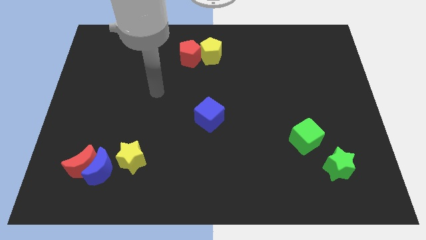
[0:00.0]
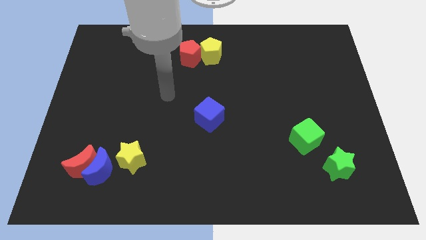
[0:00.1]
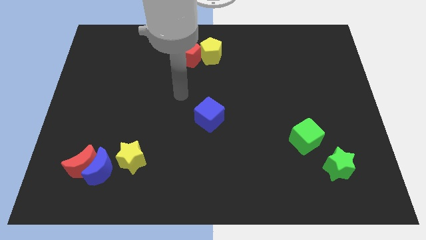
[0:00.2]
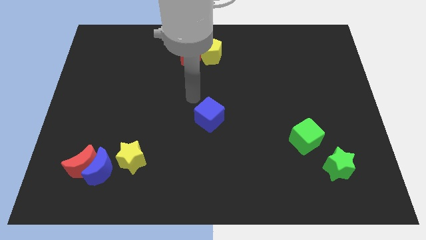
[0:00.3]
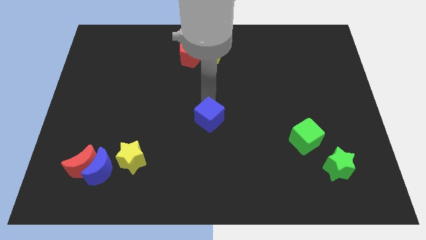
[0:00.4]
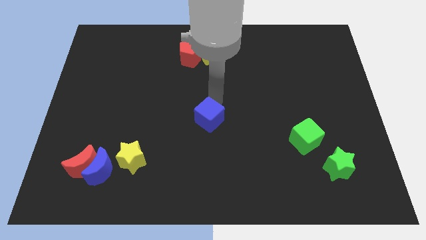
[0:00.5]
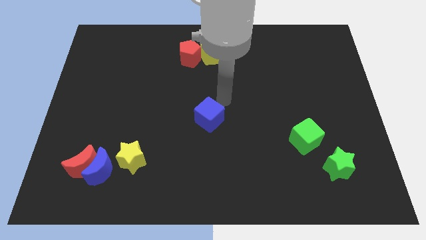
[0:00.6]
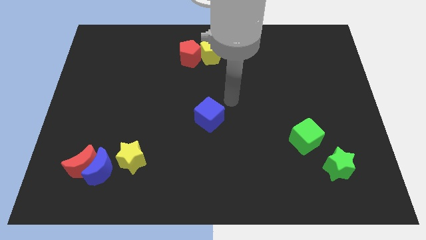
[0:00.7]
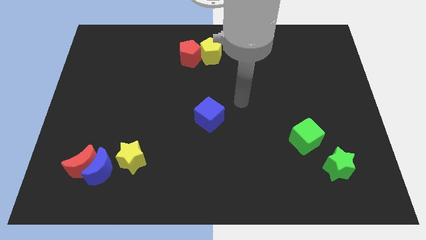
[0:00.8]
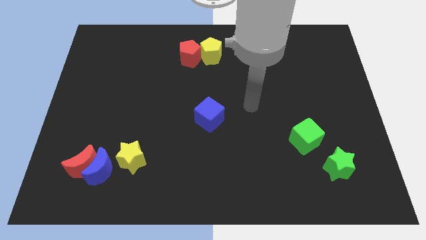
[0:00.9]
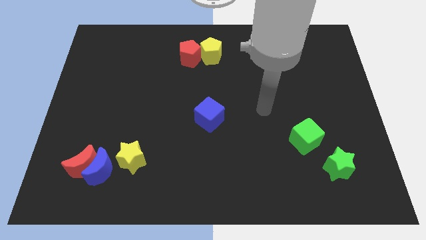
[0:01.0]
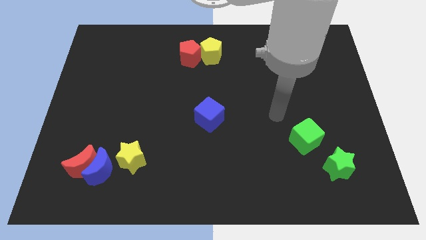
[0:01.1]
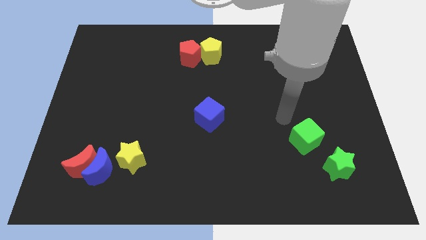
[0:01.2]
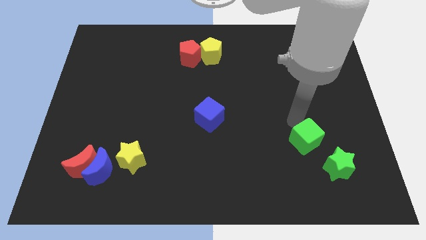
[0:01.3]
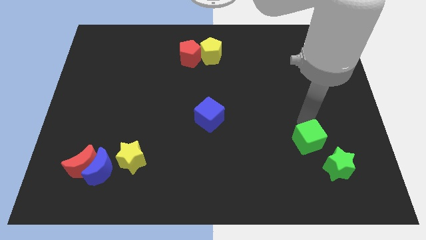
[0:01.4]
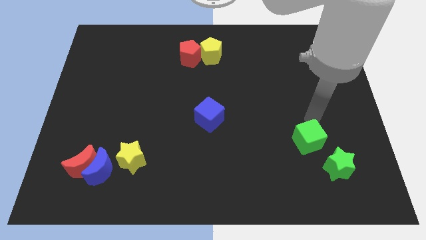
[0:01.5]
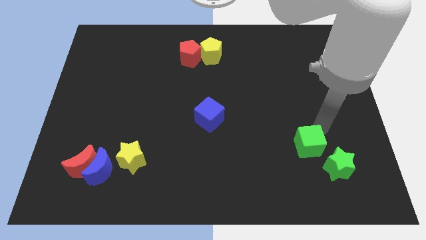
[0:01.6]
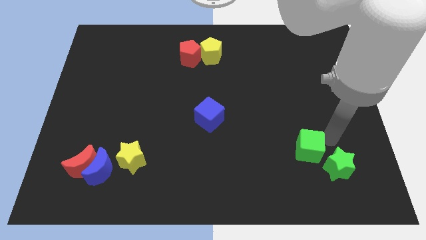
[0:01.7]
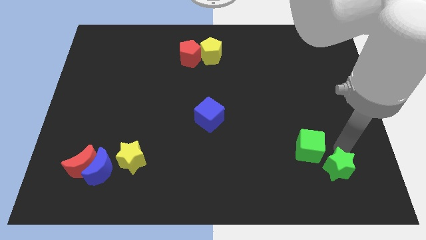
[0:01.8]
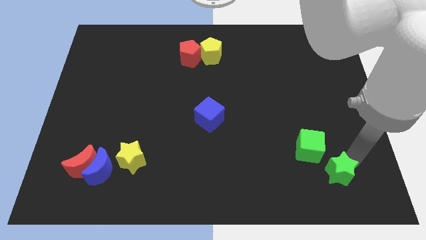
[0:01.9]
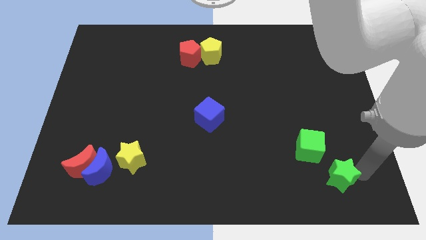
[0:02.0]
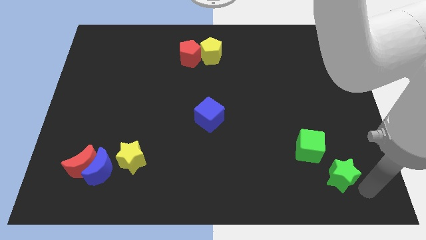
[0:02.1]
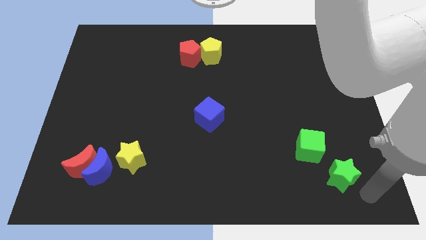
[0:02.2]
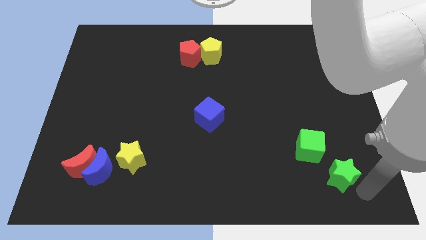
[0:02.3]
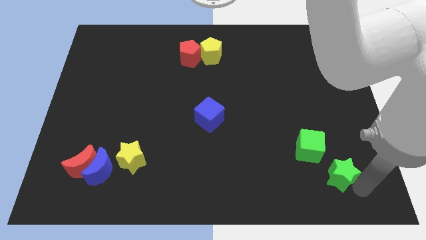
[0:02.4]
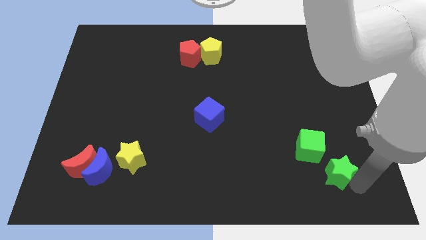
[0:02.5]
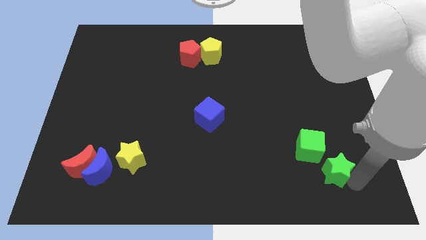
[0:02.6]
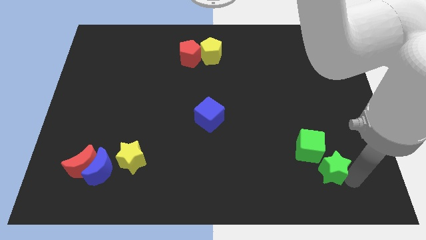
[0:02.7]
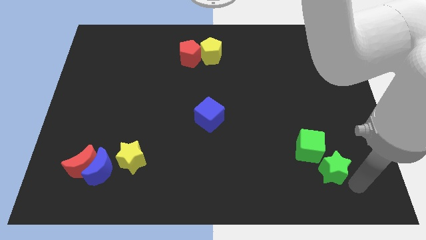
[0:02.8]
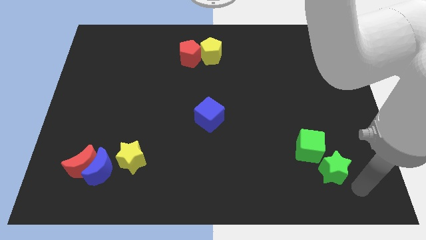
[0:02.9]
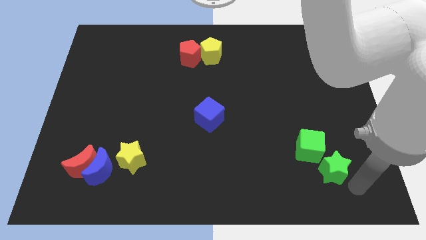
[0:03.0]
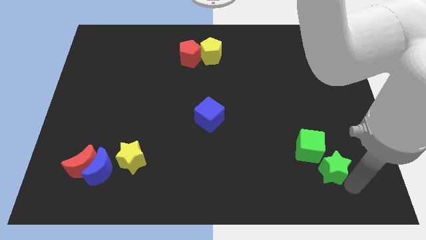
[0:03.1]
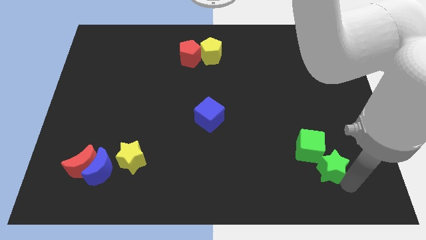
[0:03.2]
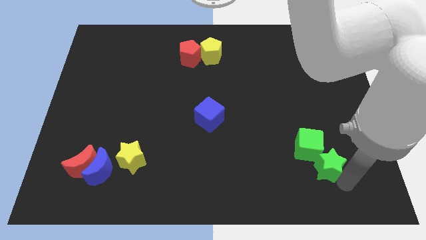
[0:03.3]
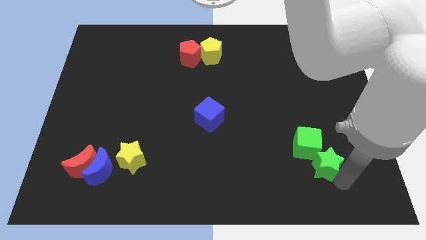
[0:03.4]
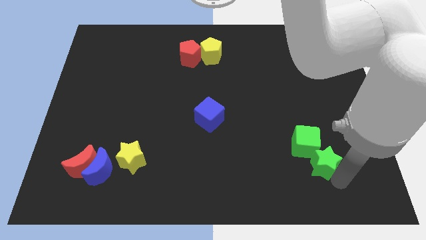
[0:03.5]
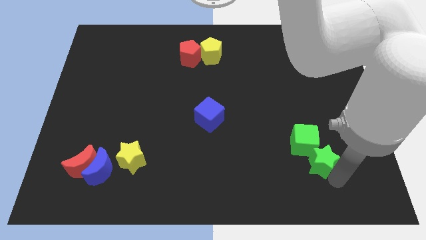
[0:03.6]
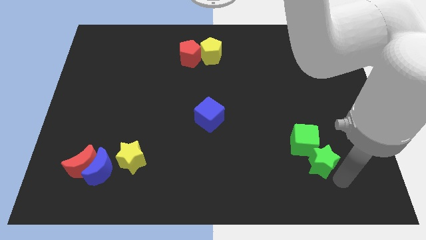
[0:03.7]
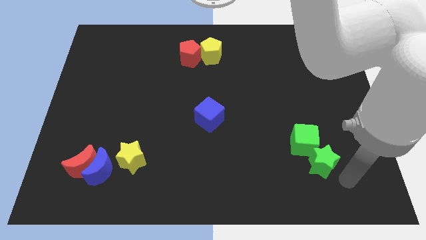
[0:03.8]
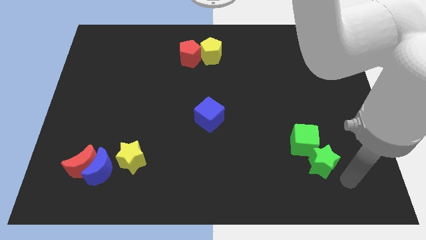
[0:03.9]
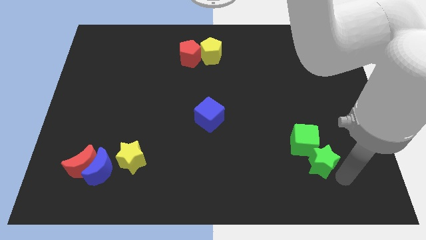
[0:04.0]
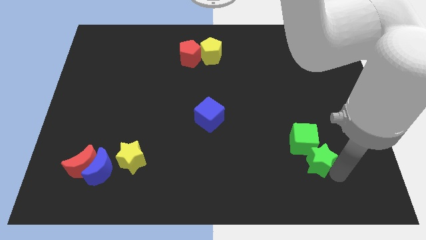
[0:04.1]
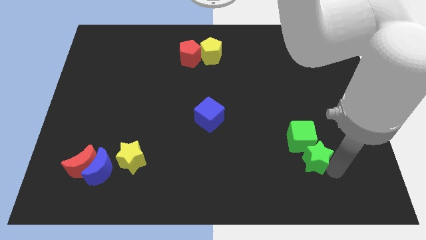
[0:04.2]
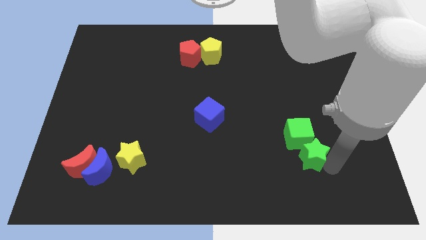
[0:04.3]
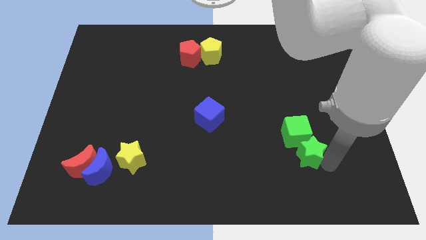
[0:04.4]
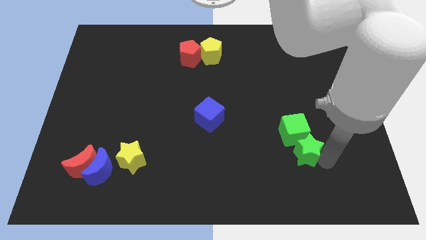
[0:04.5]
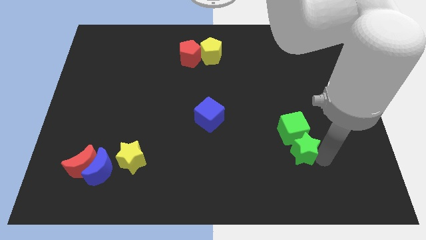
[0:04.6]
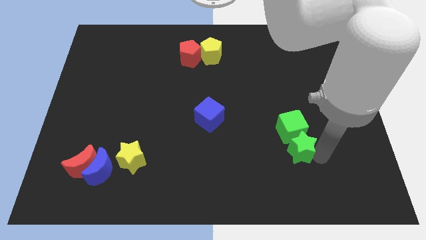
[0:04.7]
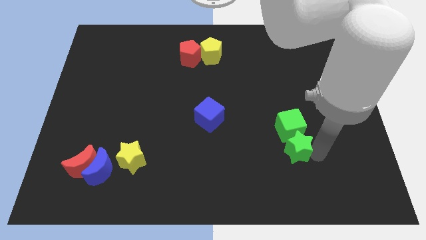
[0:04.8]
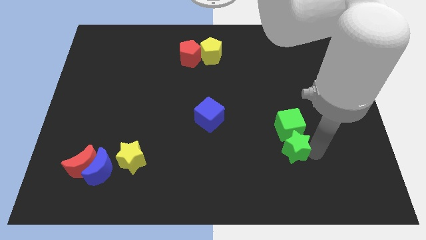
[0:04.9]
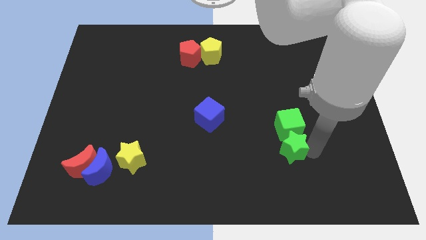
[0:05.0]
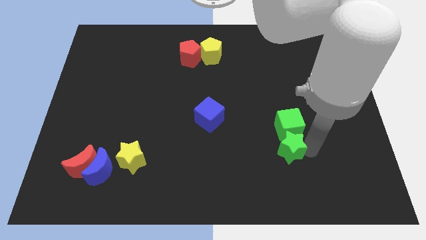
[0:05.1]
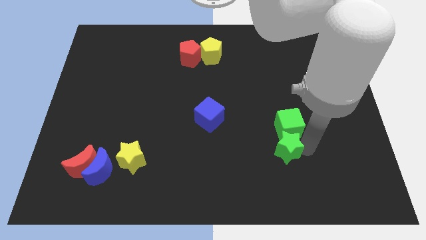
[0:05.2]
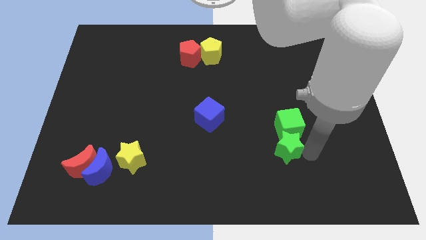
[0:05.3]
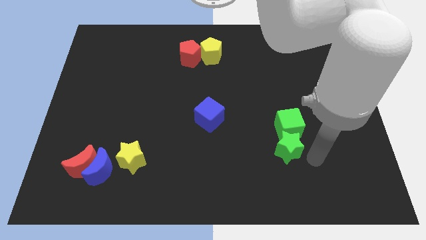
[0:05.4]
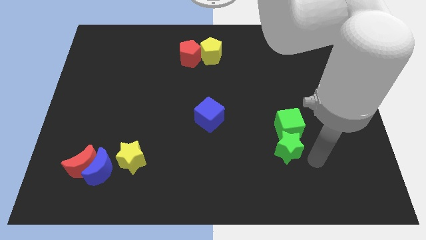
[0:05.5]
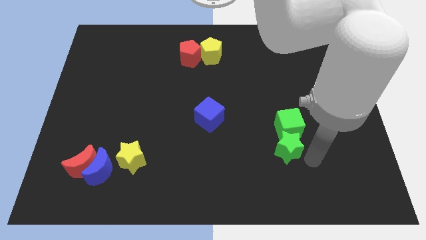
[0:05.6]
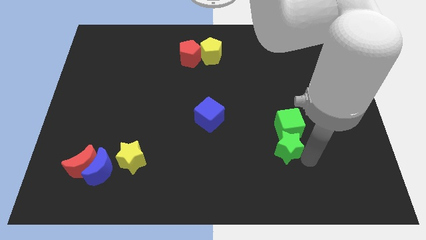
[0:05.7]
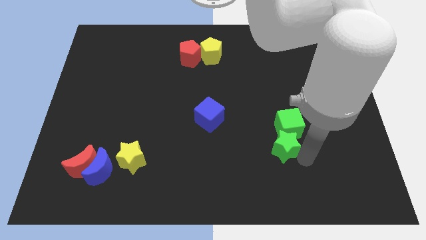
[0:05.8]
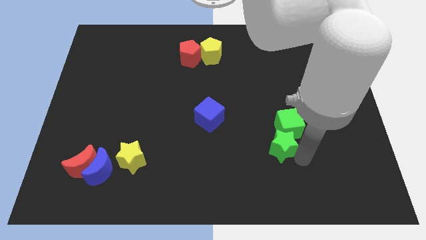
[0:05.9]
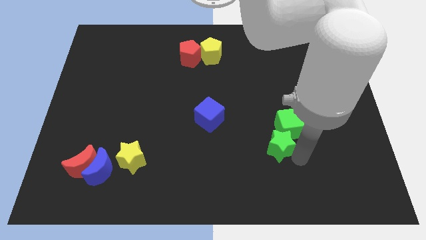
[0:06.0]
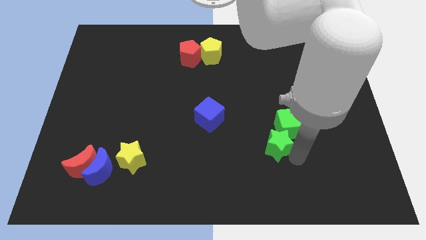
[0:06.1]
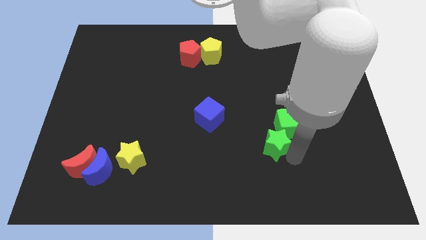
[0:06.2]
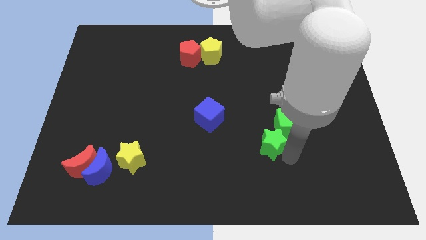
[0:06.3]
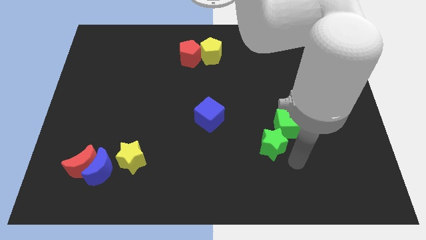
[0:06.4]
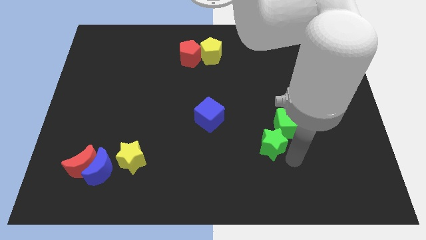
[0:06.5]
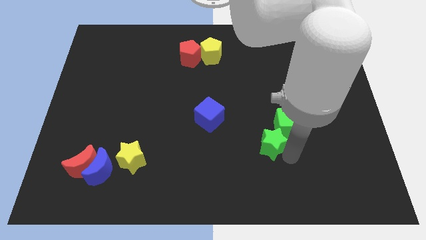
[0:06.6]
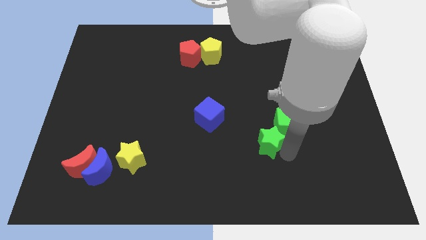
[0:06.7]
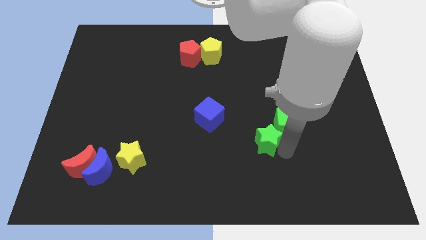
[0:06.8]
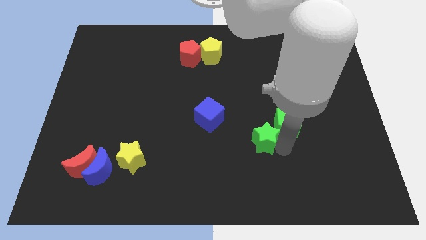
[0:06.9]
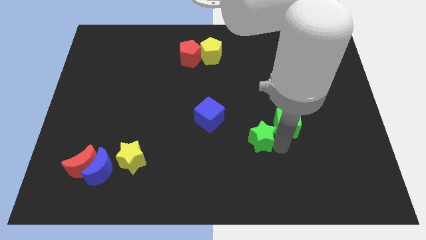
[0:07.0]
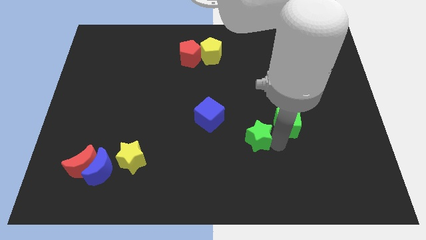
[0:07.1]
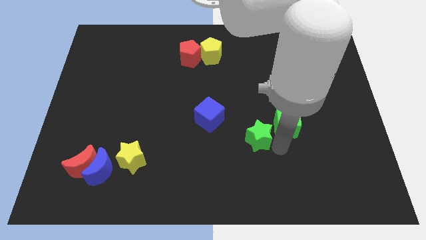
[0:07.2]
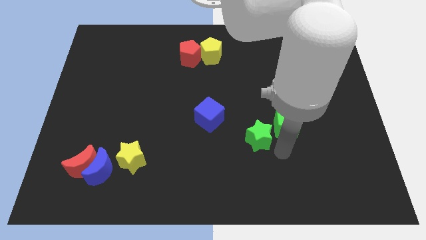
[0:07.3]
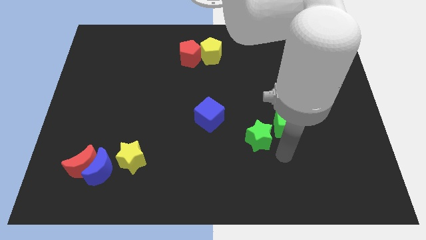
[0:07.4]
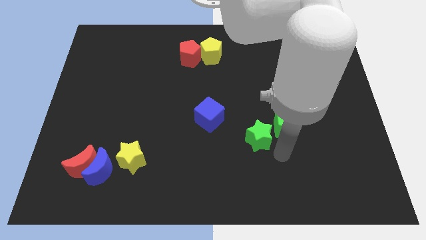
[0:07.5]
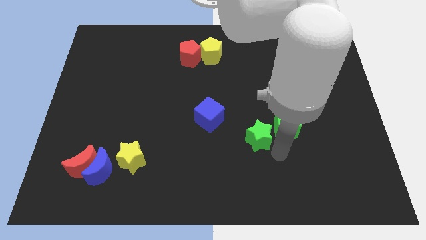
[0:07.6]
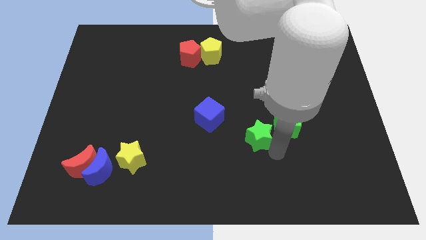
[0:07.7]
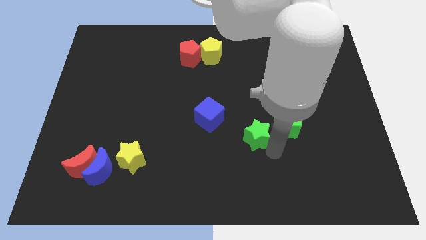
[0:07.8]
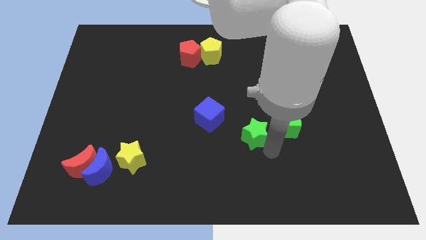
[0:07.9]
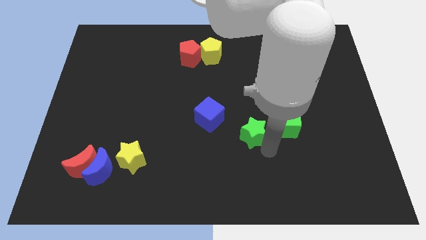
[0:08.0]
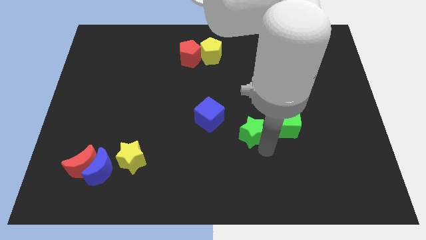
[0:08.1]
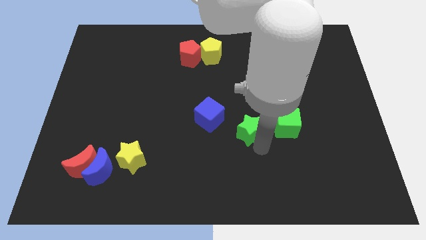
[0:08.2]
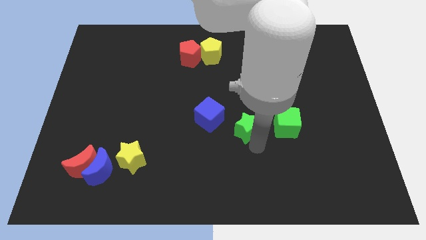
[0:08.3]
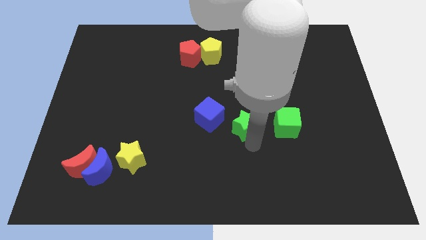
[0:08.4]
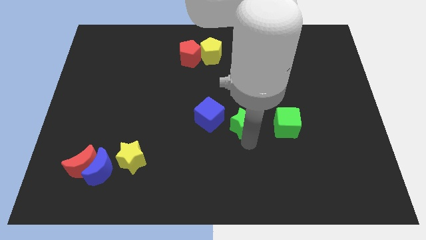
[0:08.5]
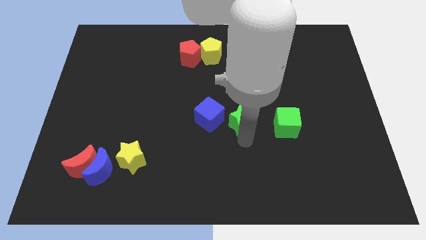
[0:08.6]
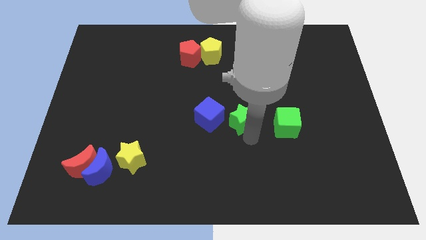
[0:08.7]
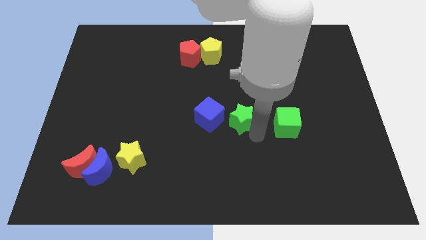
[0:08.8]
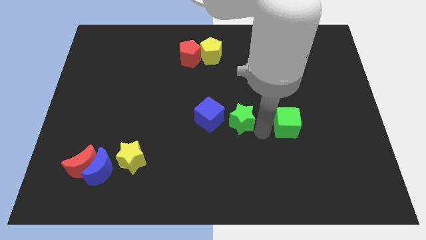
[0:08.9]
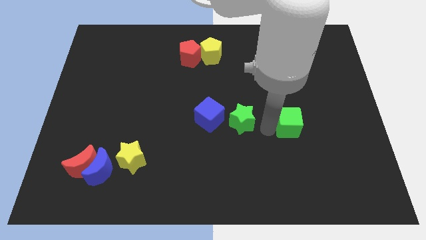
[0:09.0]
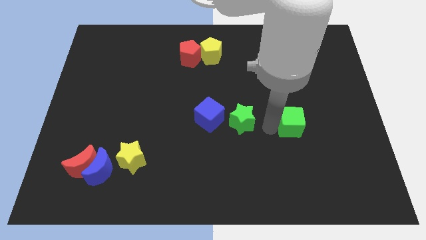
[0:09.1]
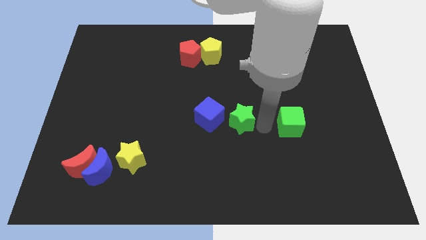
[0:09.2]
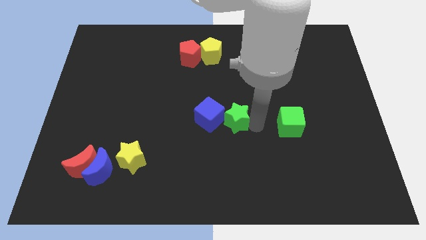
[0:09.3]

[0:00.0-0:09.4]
push the green star close to the blue cube
